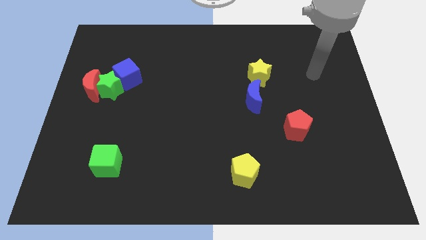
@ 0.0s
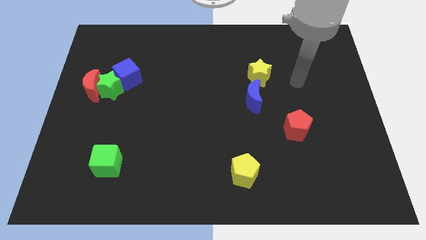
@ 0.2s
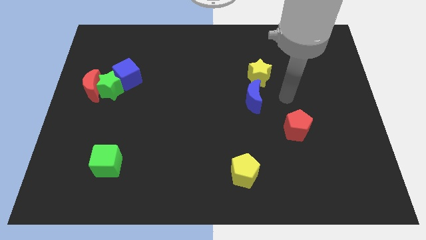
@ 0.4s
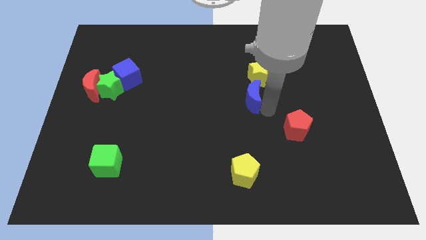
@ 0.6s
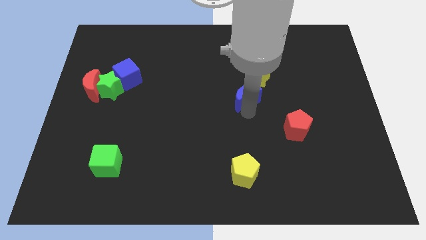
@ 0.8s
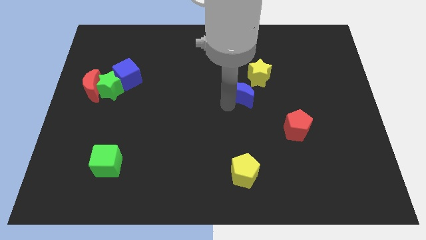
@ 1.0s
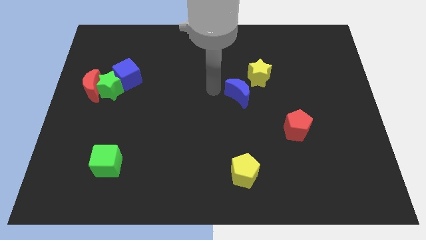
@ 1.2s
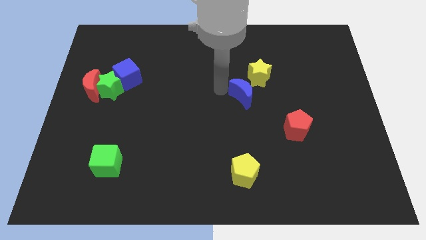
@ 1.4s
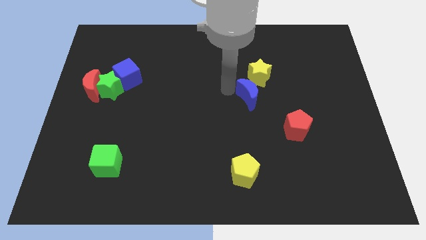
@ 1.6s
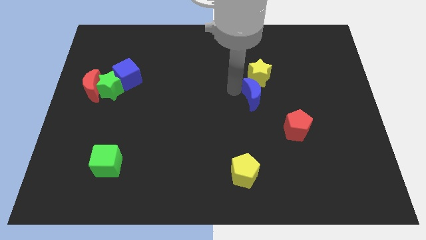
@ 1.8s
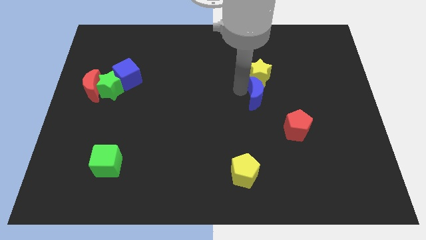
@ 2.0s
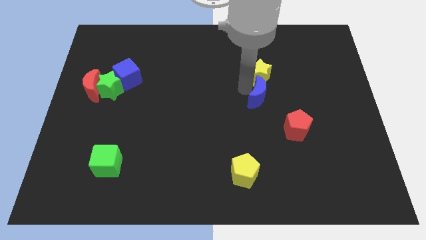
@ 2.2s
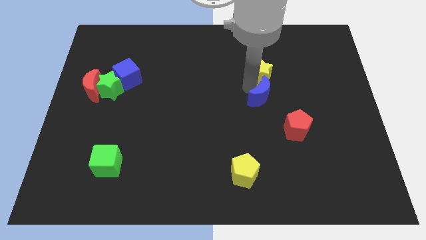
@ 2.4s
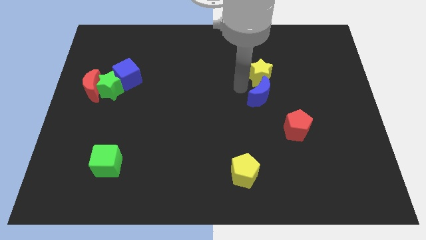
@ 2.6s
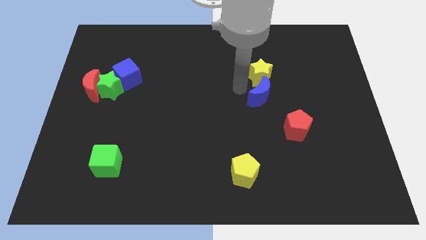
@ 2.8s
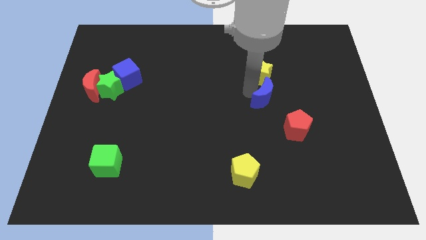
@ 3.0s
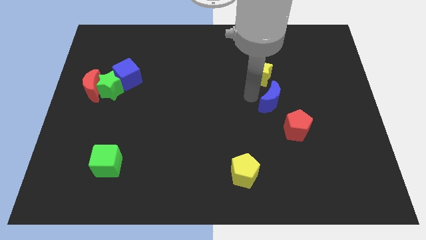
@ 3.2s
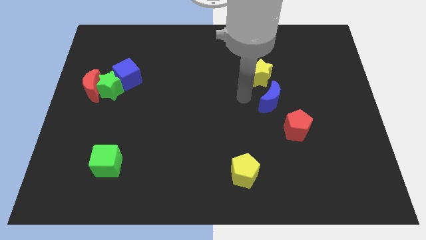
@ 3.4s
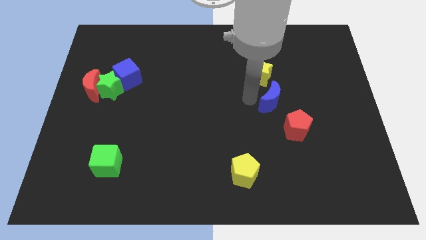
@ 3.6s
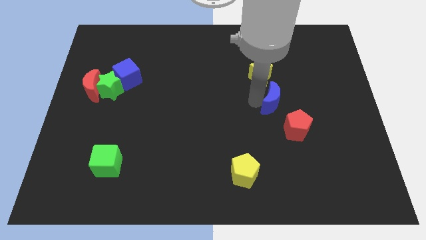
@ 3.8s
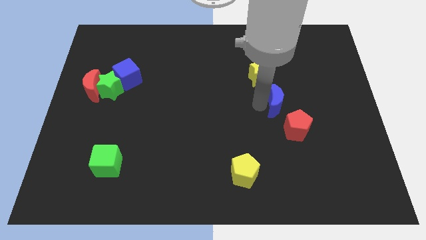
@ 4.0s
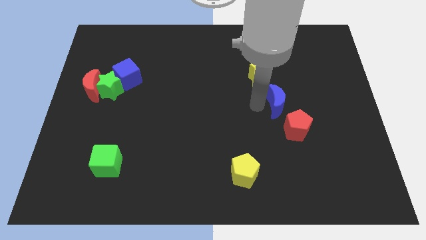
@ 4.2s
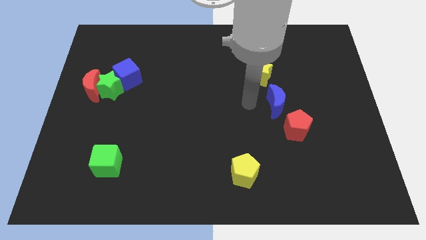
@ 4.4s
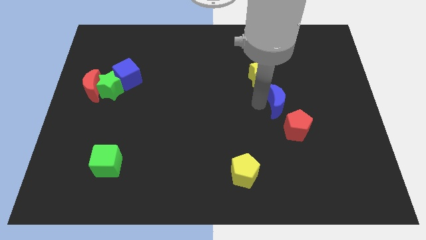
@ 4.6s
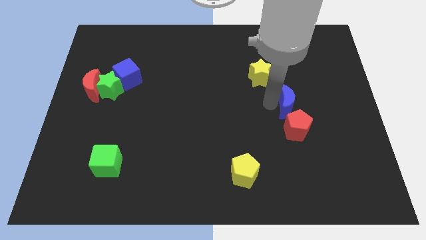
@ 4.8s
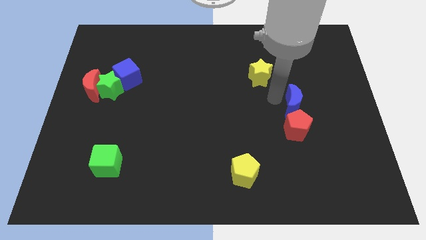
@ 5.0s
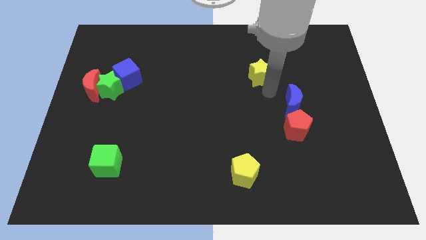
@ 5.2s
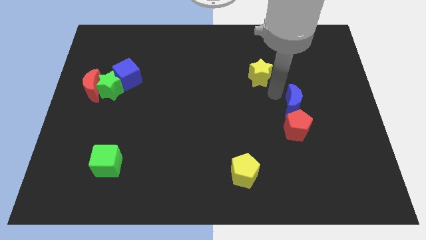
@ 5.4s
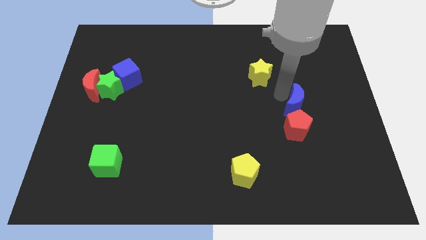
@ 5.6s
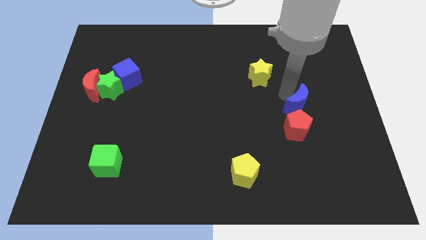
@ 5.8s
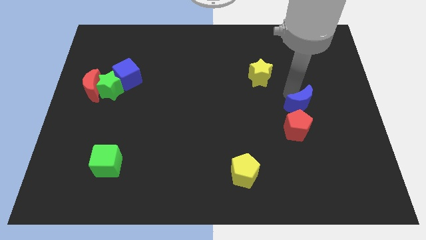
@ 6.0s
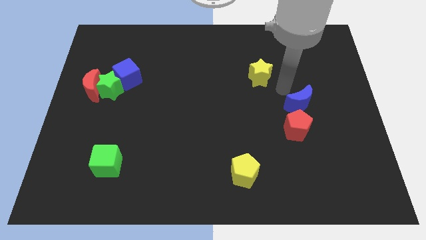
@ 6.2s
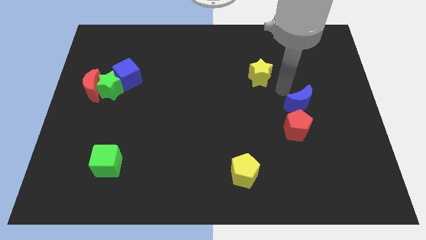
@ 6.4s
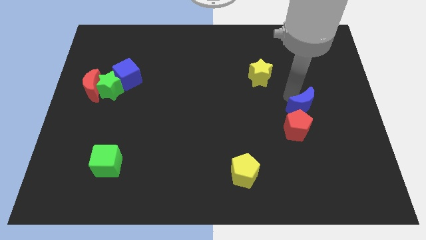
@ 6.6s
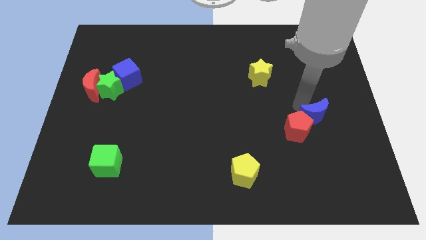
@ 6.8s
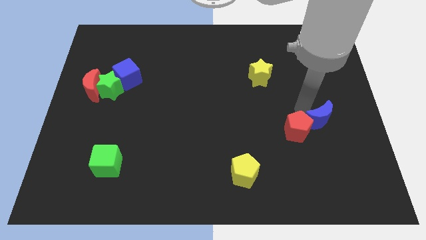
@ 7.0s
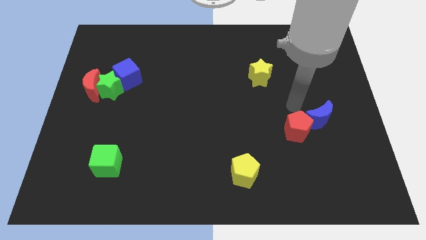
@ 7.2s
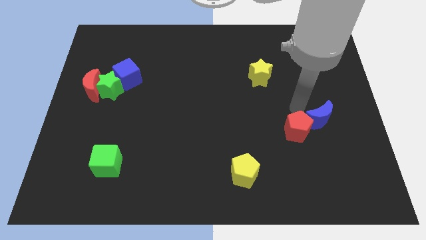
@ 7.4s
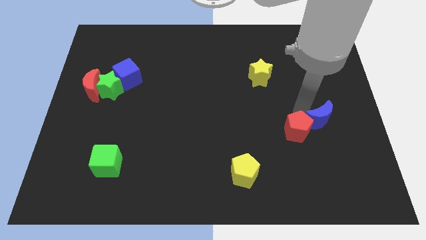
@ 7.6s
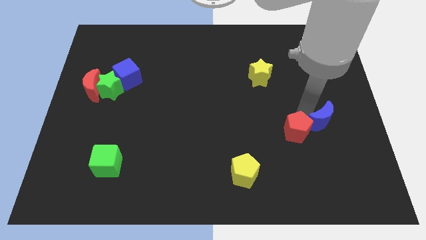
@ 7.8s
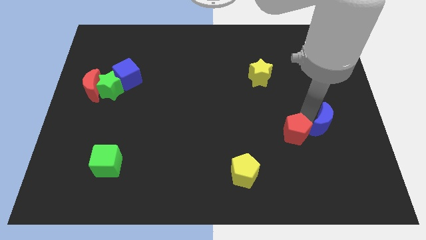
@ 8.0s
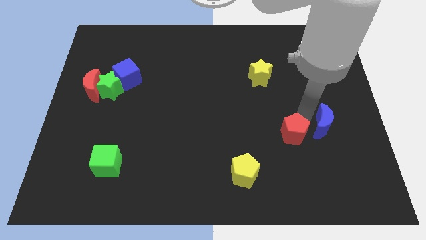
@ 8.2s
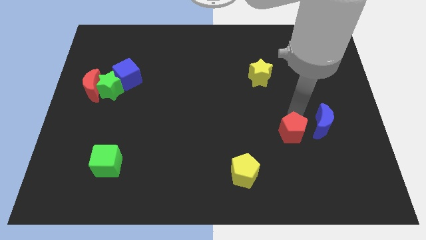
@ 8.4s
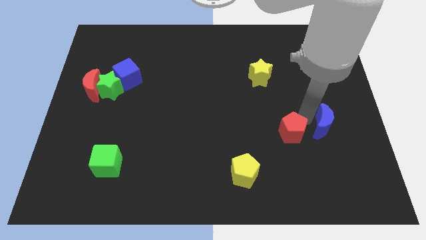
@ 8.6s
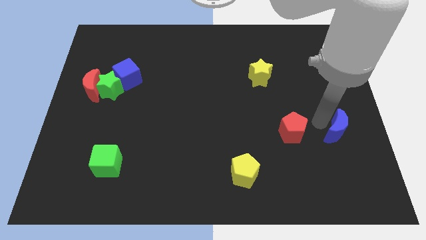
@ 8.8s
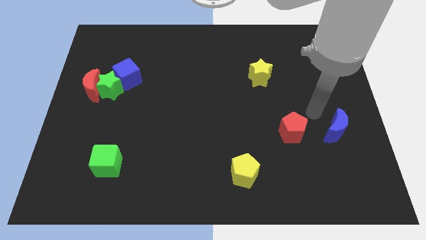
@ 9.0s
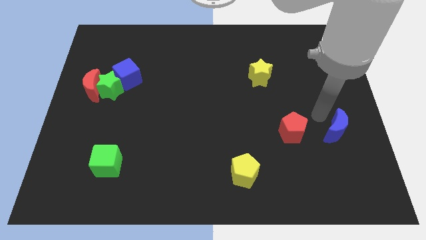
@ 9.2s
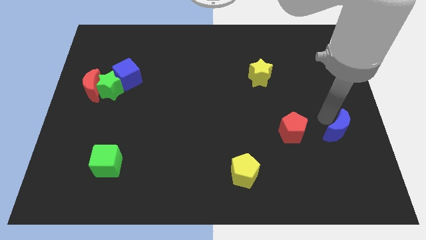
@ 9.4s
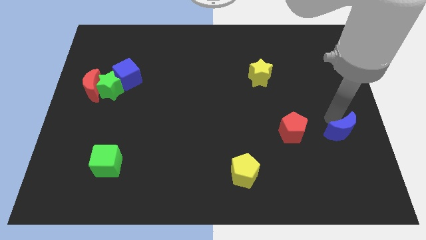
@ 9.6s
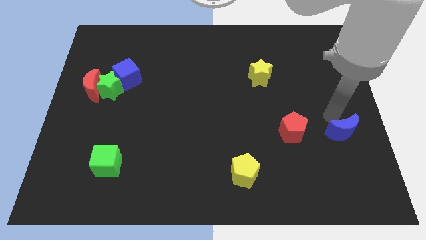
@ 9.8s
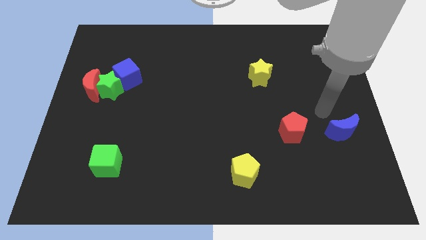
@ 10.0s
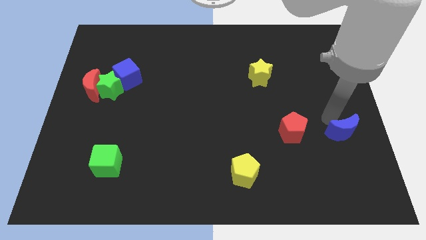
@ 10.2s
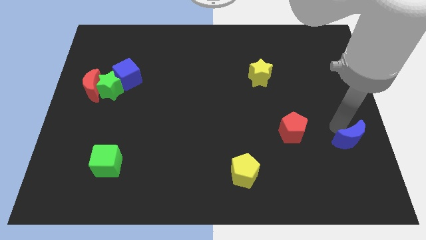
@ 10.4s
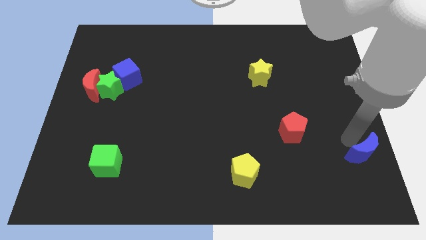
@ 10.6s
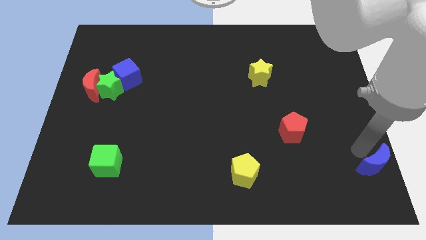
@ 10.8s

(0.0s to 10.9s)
move the blue moon to the bottom right corner

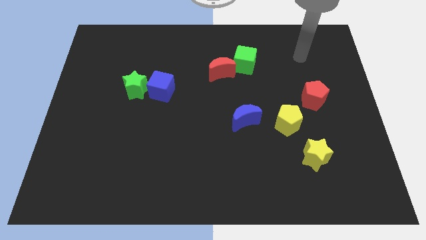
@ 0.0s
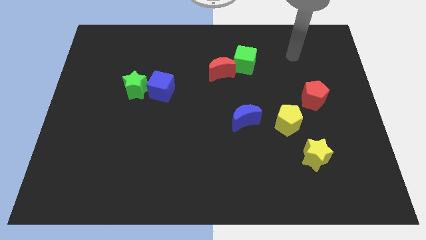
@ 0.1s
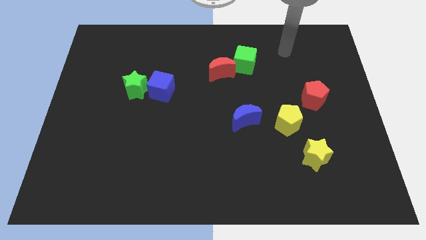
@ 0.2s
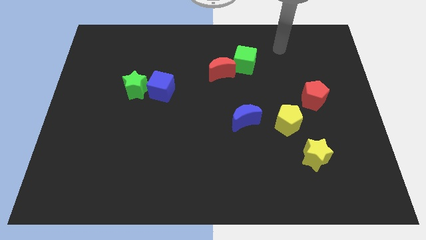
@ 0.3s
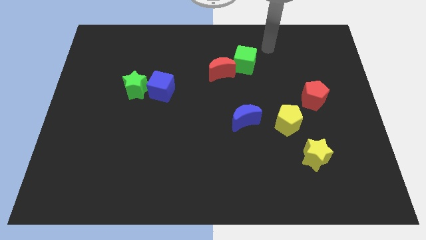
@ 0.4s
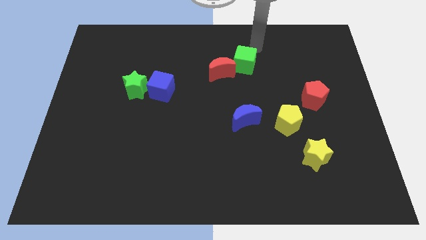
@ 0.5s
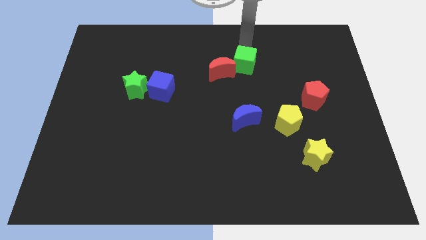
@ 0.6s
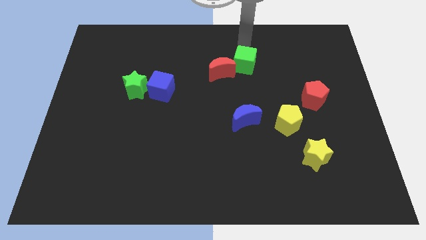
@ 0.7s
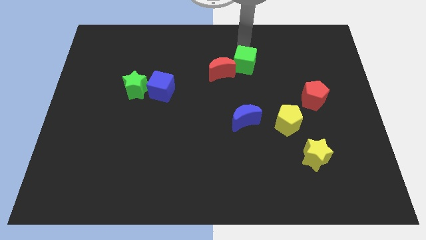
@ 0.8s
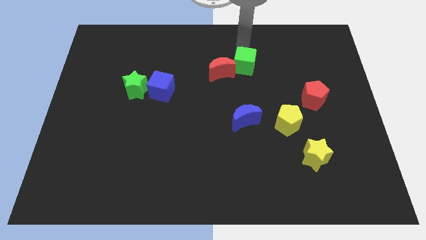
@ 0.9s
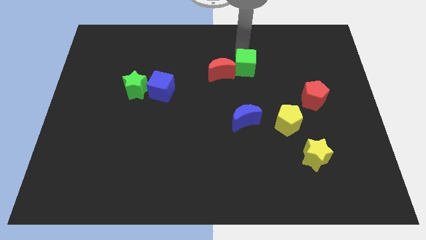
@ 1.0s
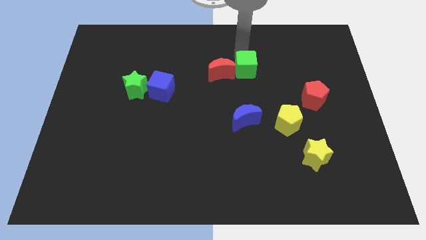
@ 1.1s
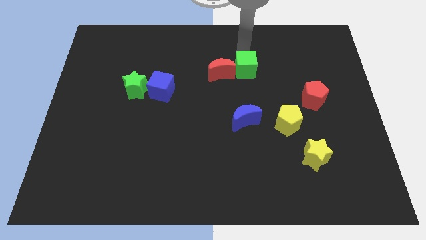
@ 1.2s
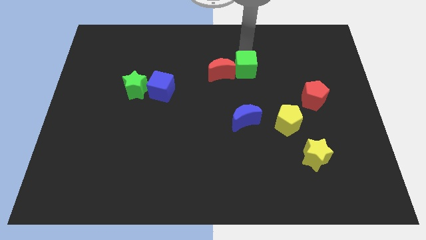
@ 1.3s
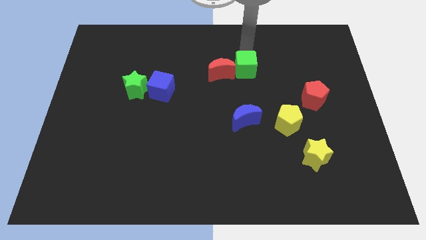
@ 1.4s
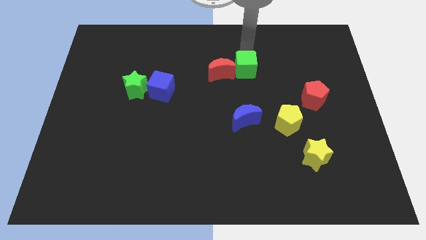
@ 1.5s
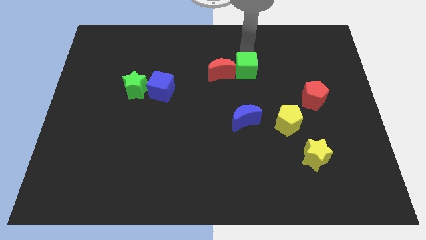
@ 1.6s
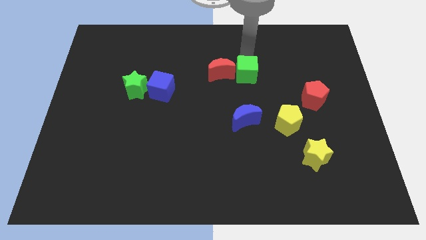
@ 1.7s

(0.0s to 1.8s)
push the green cube to the middle
